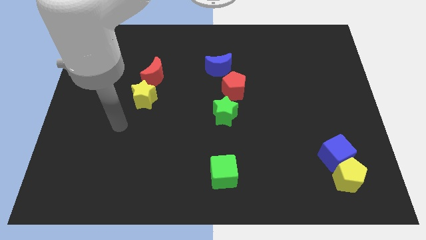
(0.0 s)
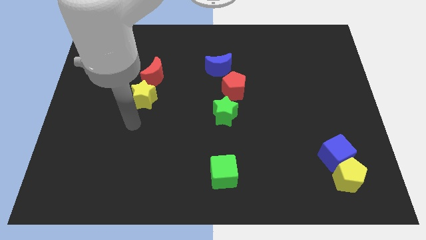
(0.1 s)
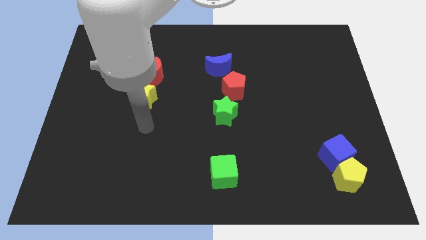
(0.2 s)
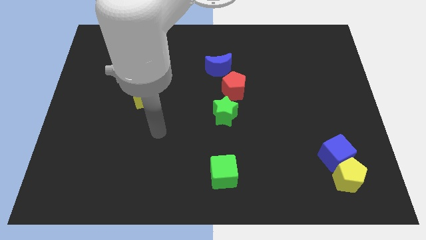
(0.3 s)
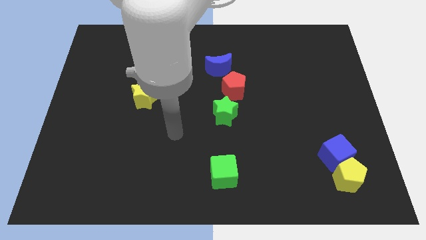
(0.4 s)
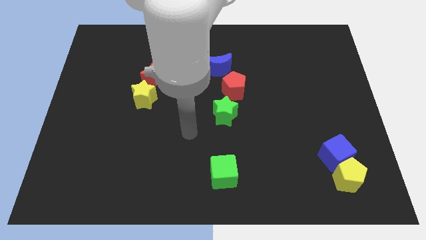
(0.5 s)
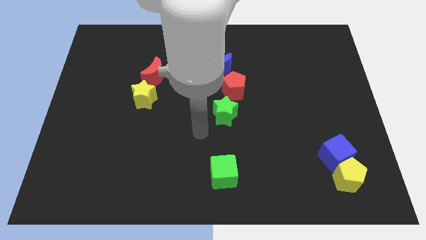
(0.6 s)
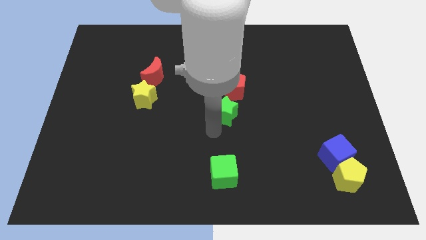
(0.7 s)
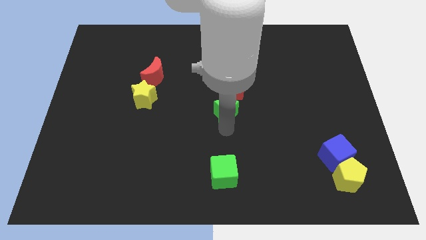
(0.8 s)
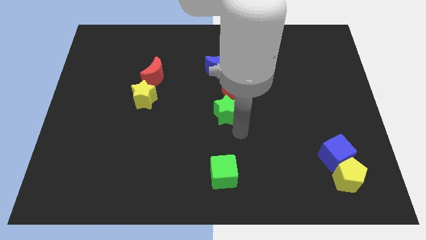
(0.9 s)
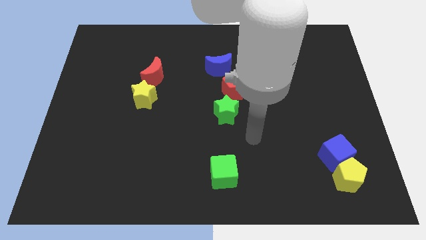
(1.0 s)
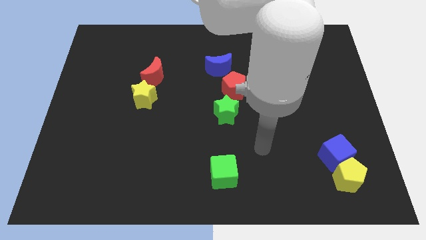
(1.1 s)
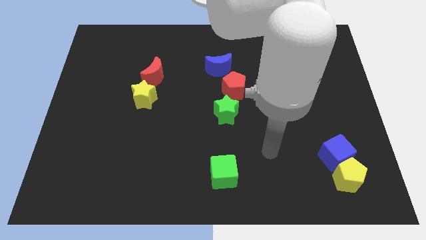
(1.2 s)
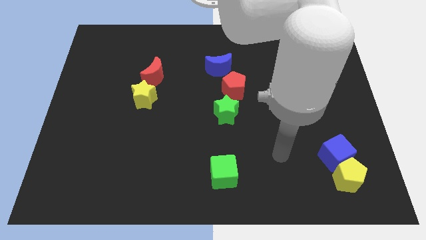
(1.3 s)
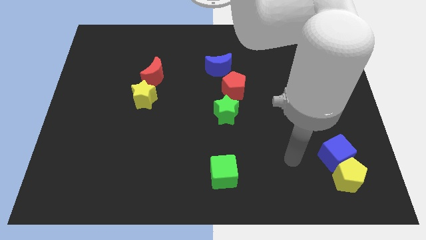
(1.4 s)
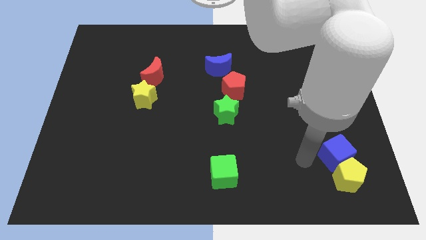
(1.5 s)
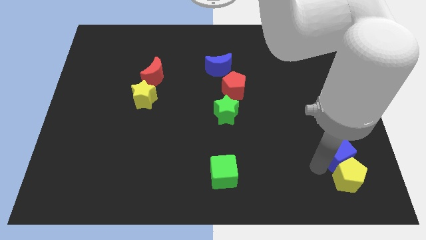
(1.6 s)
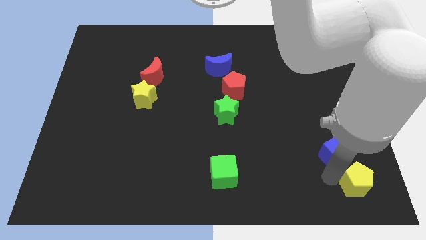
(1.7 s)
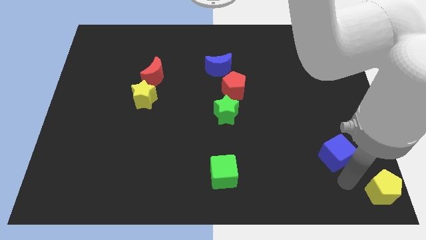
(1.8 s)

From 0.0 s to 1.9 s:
move the blue cube away from the yellow pentagon

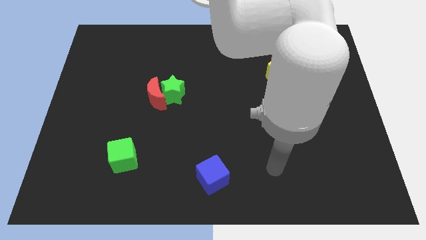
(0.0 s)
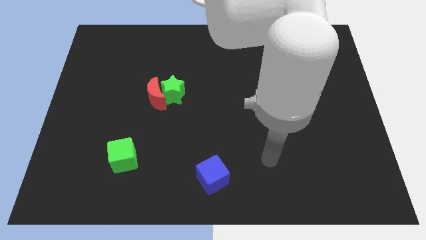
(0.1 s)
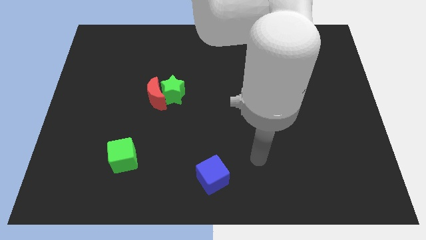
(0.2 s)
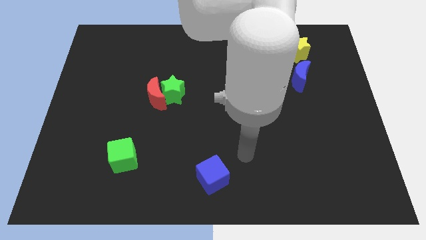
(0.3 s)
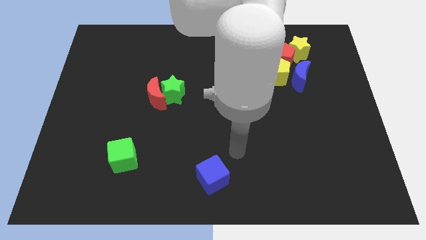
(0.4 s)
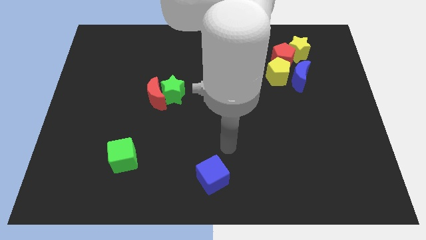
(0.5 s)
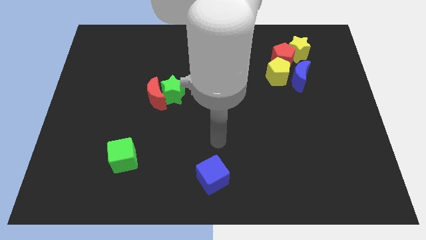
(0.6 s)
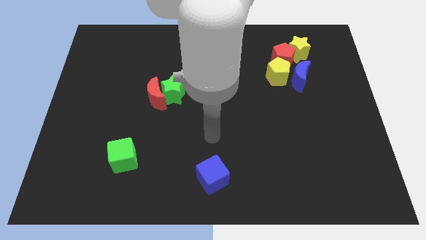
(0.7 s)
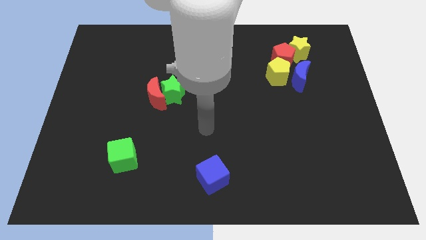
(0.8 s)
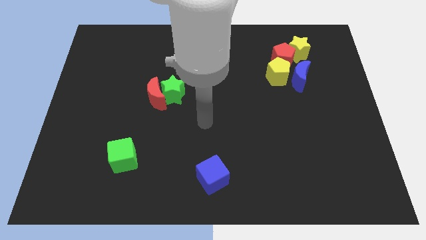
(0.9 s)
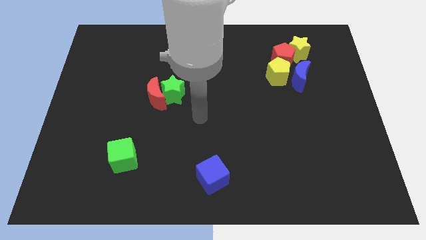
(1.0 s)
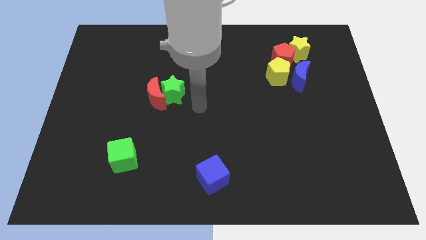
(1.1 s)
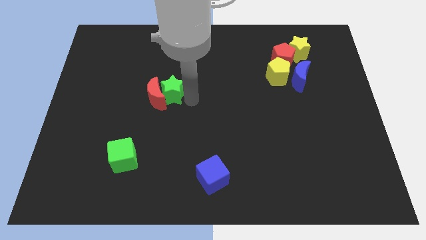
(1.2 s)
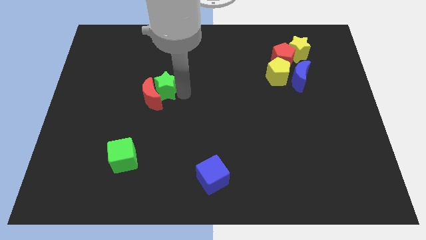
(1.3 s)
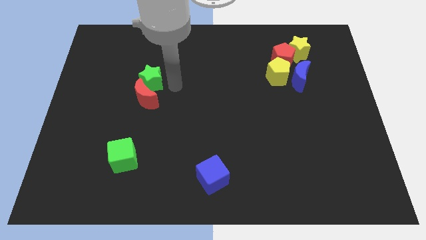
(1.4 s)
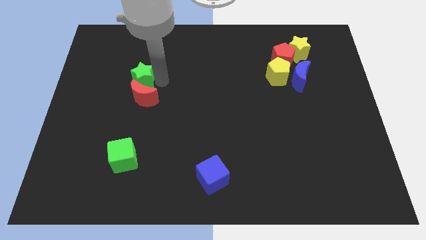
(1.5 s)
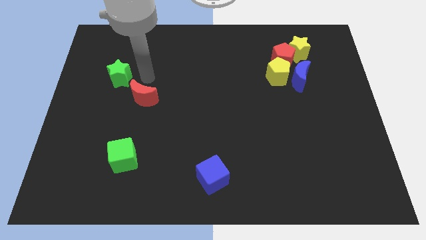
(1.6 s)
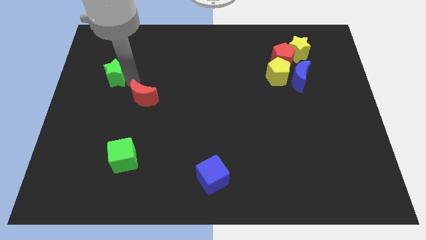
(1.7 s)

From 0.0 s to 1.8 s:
pull the red moon apart from the green star

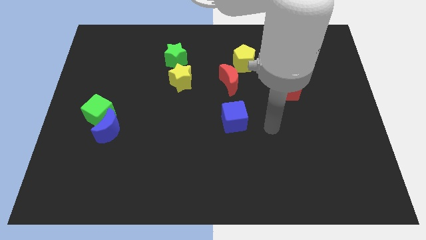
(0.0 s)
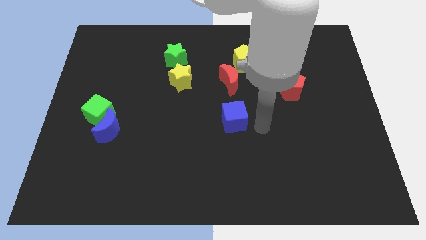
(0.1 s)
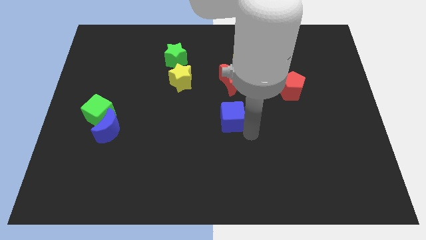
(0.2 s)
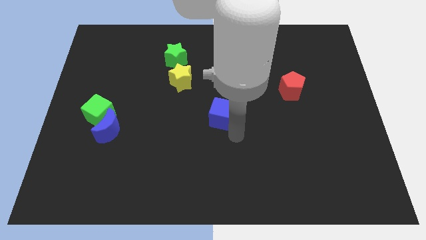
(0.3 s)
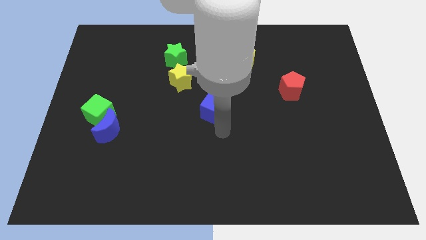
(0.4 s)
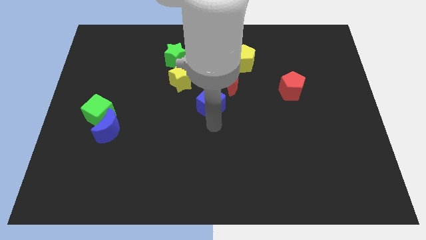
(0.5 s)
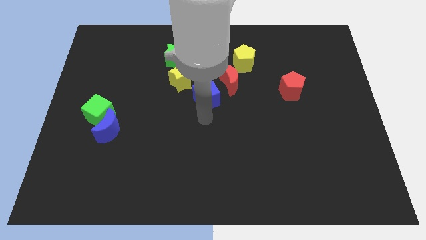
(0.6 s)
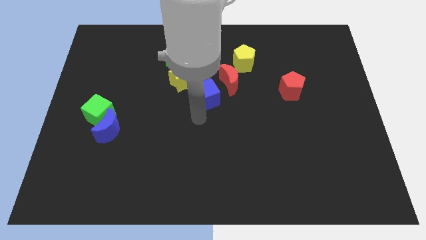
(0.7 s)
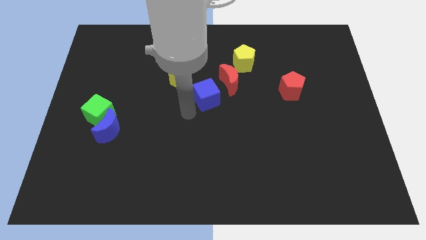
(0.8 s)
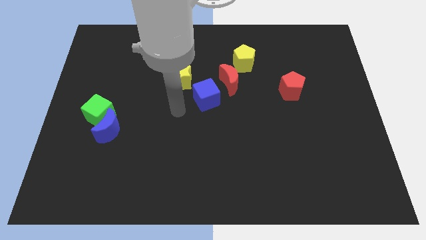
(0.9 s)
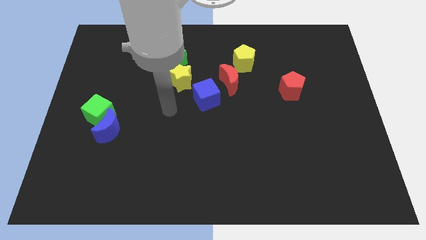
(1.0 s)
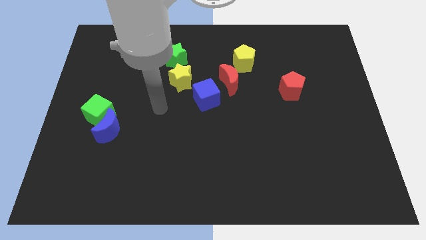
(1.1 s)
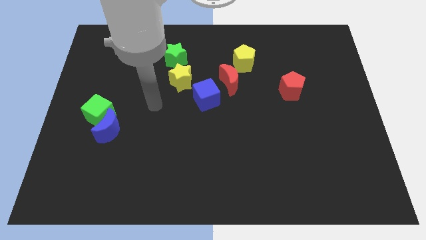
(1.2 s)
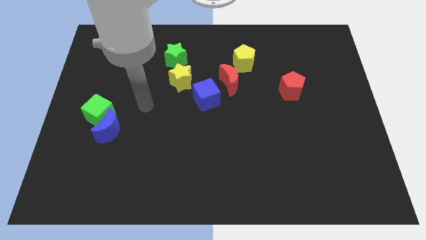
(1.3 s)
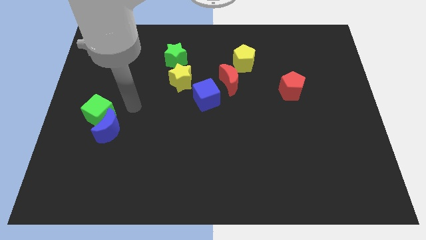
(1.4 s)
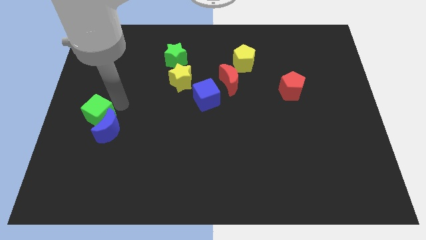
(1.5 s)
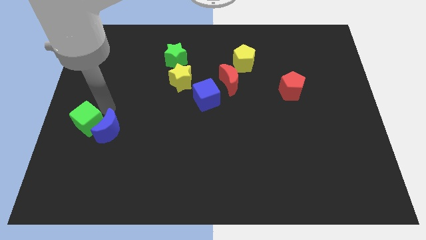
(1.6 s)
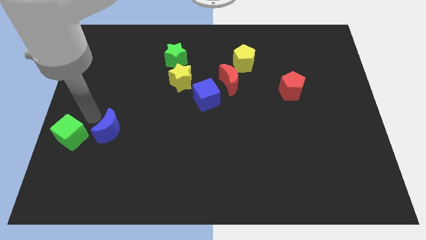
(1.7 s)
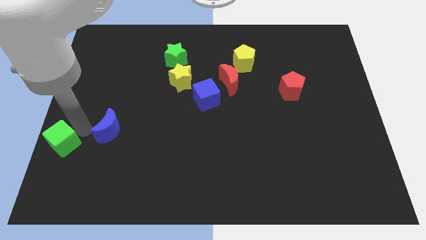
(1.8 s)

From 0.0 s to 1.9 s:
separate the blue moon from the green cube

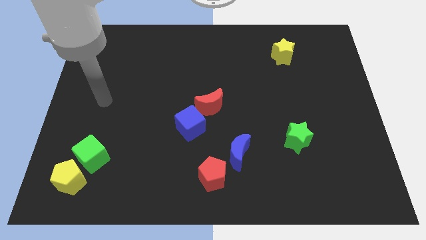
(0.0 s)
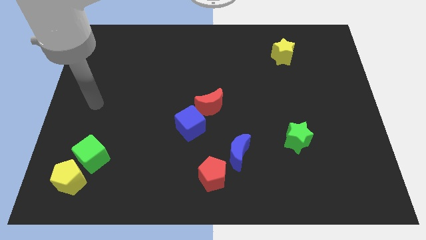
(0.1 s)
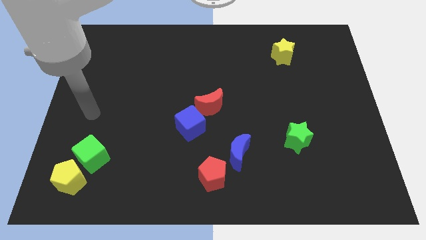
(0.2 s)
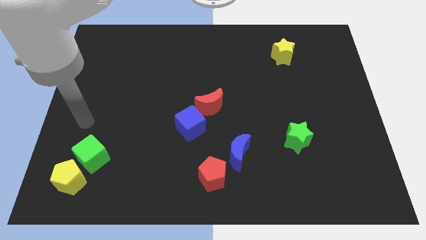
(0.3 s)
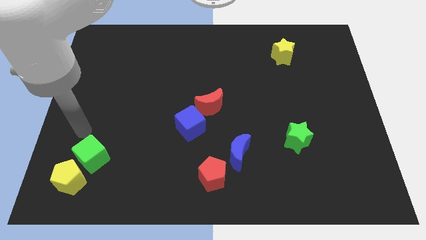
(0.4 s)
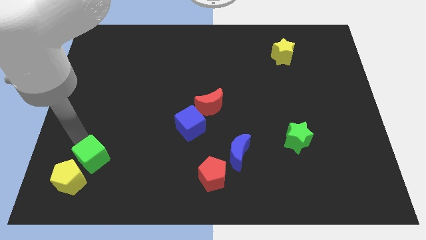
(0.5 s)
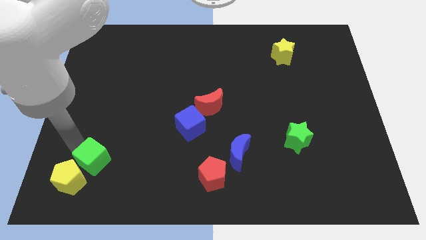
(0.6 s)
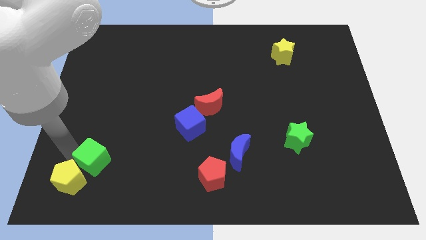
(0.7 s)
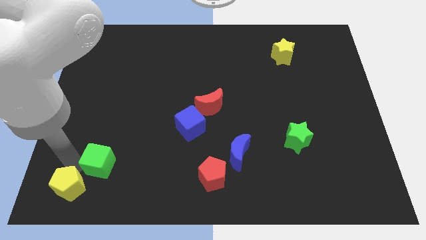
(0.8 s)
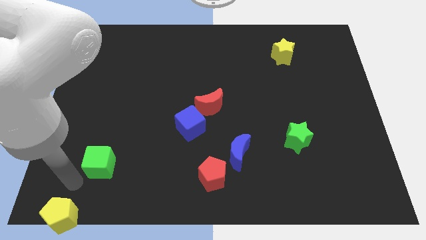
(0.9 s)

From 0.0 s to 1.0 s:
move the green cube away from the yellow pentagon

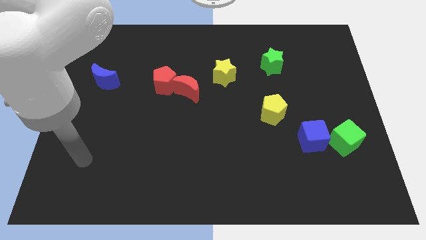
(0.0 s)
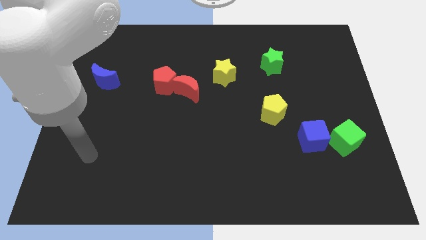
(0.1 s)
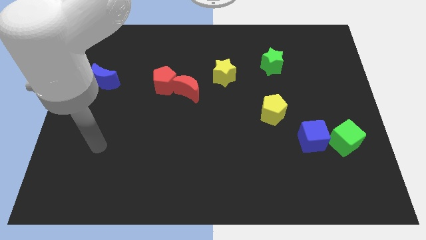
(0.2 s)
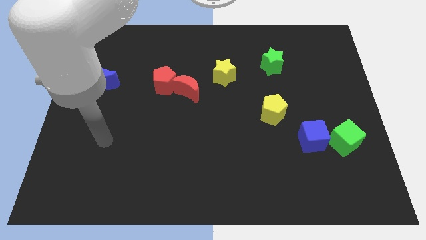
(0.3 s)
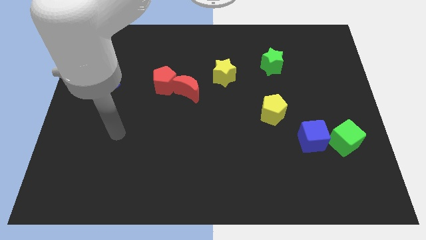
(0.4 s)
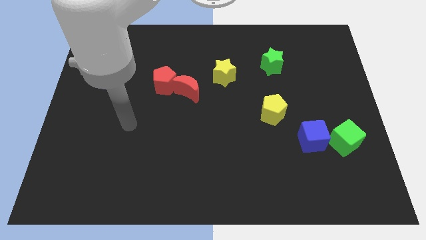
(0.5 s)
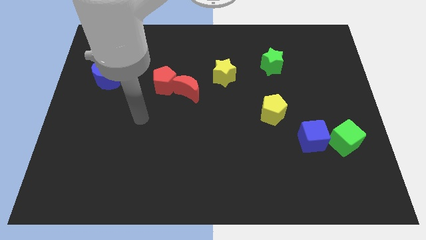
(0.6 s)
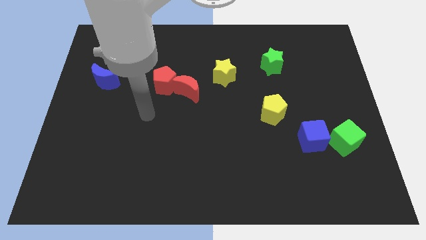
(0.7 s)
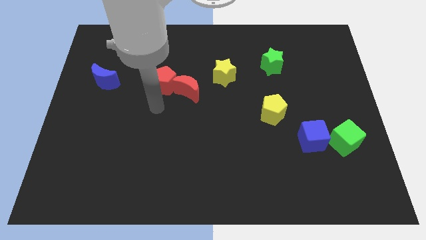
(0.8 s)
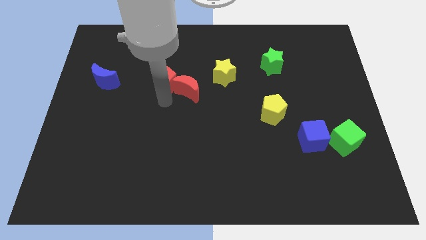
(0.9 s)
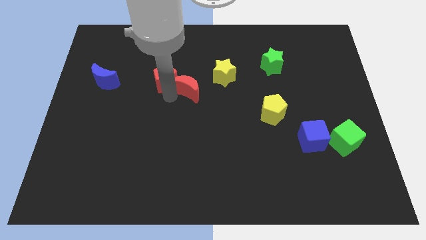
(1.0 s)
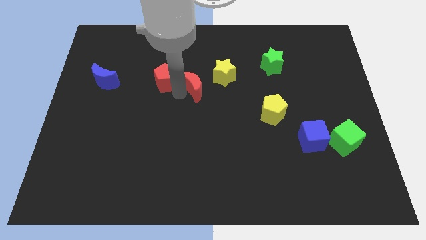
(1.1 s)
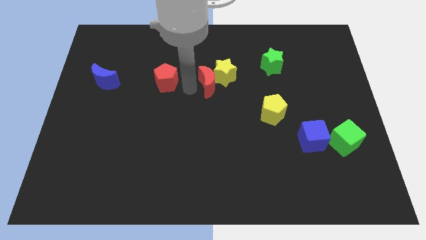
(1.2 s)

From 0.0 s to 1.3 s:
pull the red pentagon apart from the red moon

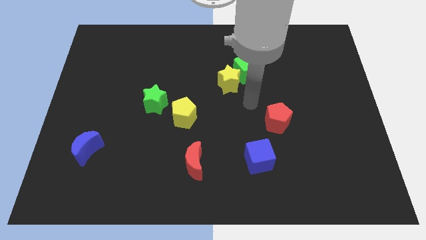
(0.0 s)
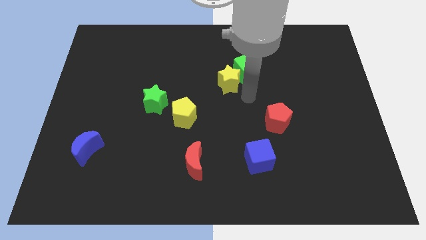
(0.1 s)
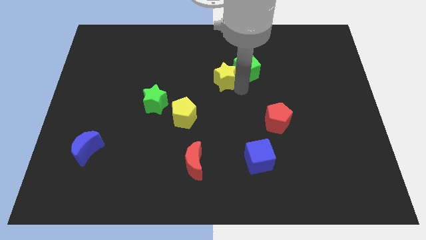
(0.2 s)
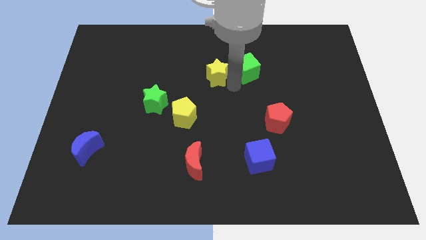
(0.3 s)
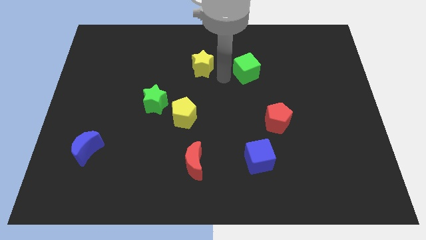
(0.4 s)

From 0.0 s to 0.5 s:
pull the green cube apart from the yellow star

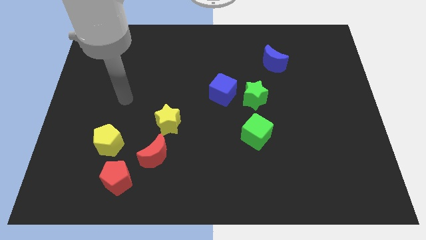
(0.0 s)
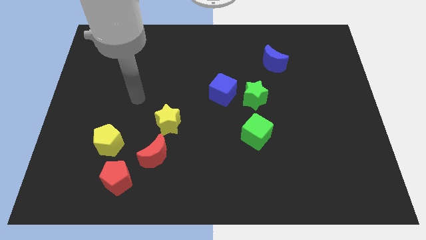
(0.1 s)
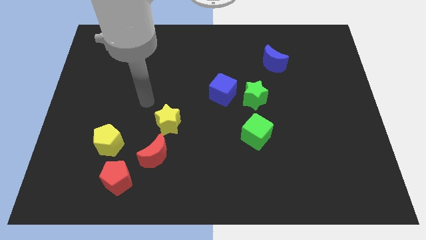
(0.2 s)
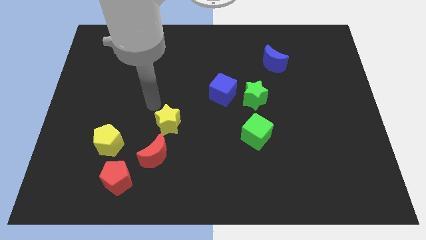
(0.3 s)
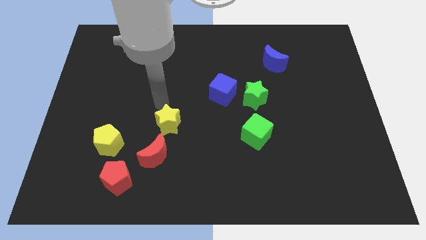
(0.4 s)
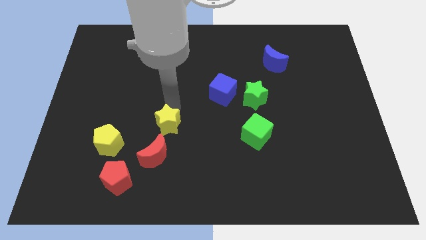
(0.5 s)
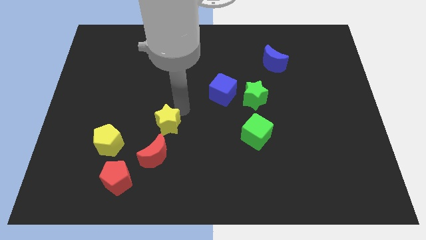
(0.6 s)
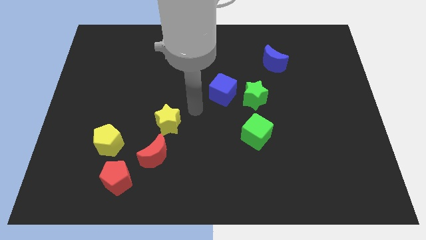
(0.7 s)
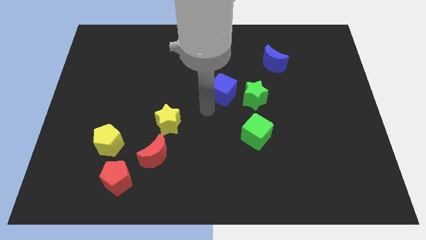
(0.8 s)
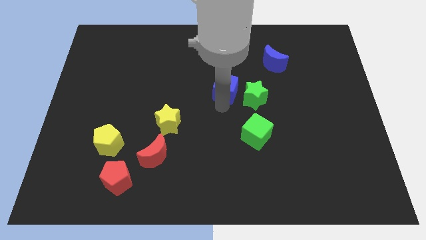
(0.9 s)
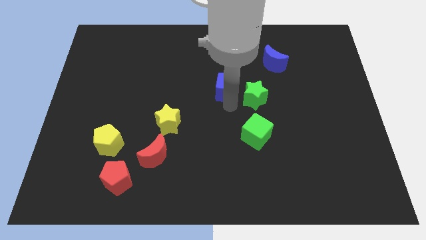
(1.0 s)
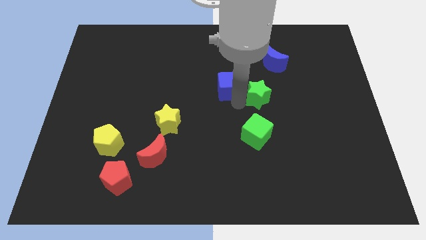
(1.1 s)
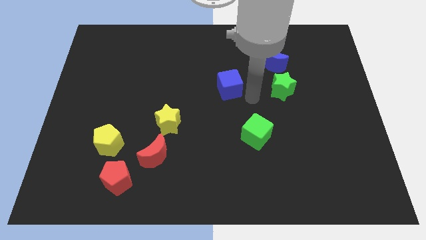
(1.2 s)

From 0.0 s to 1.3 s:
pull the blue cube apart from the green star
